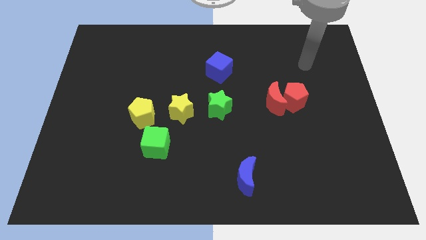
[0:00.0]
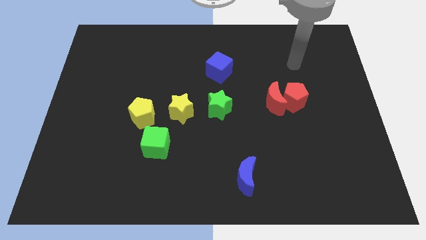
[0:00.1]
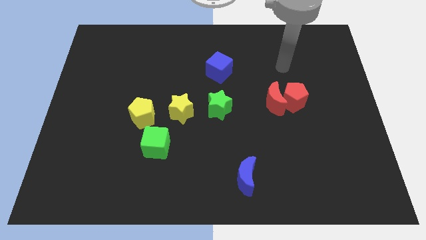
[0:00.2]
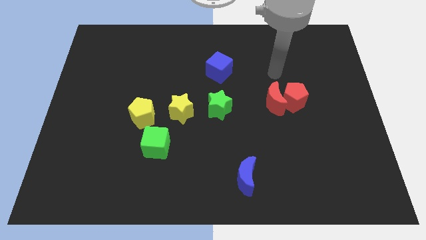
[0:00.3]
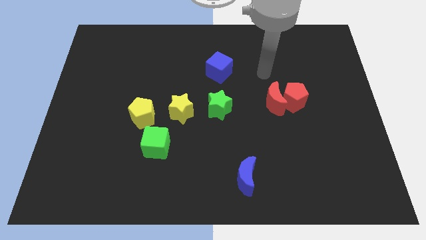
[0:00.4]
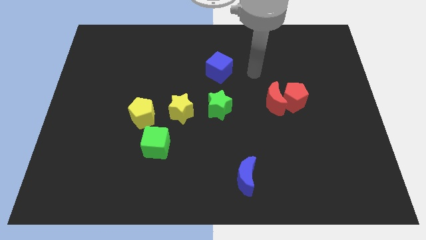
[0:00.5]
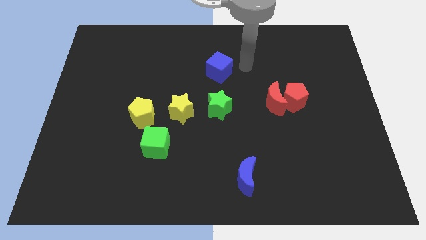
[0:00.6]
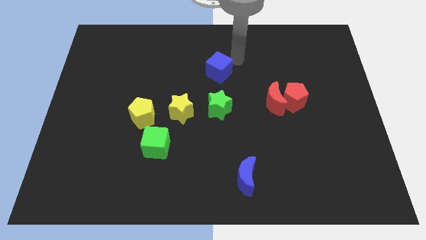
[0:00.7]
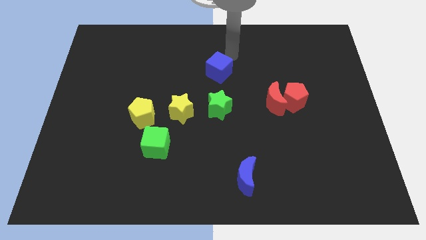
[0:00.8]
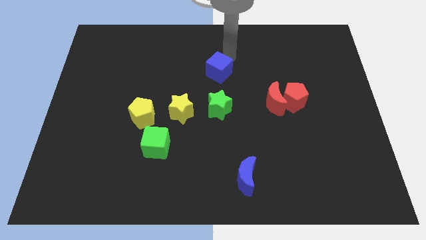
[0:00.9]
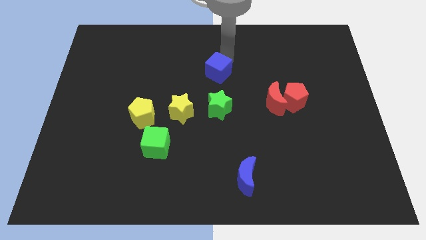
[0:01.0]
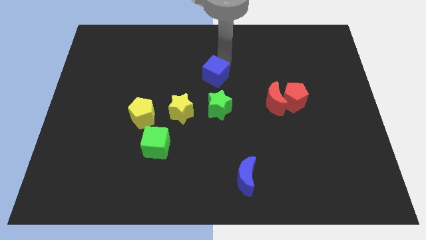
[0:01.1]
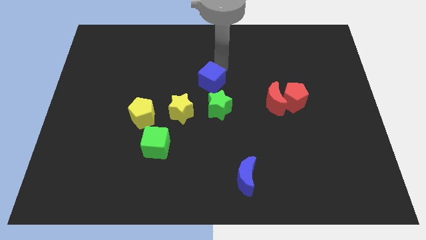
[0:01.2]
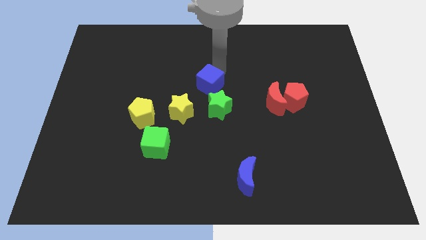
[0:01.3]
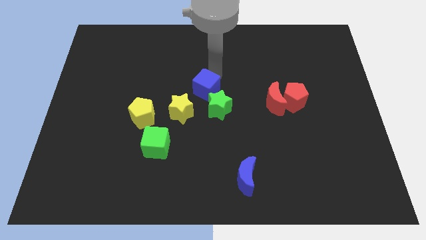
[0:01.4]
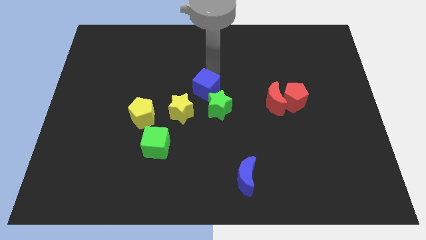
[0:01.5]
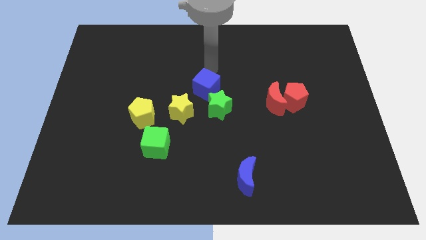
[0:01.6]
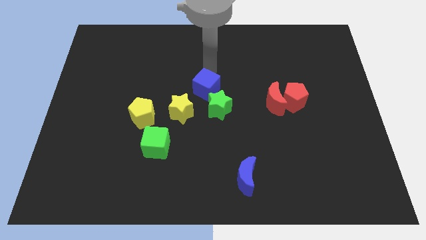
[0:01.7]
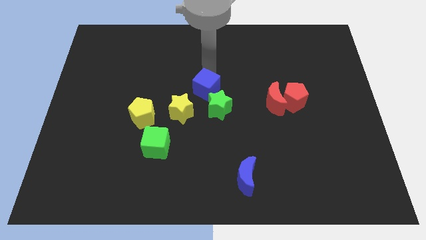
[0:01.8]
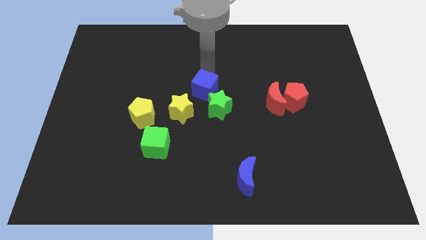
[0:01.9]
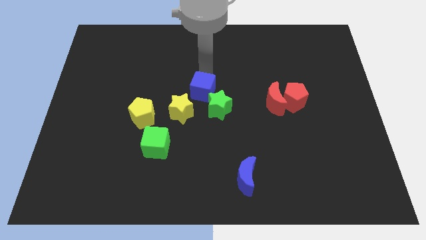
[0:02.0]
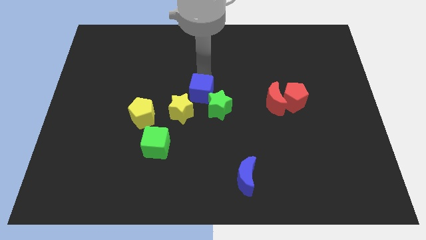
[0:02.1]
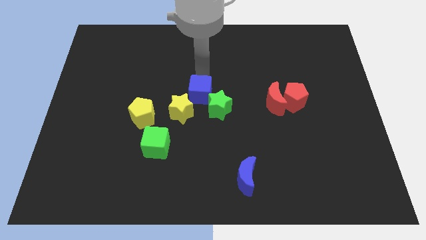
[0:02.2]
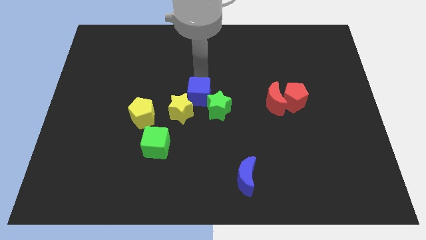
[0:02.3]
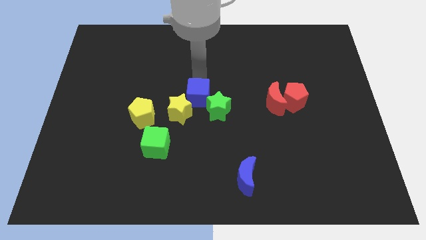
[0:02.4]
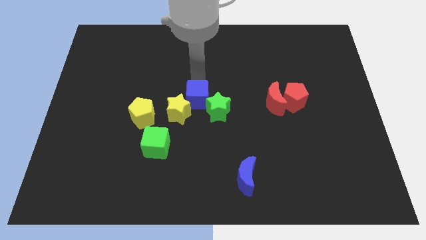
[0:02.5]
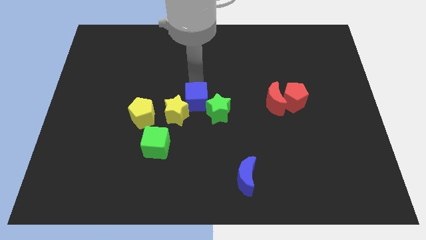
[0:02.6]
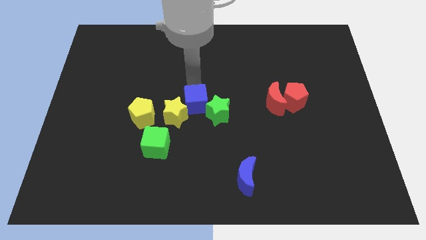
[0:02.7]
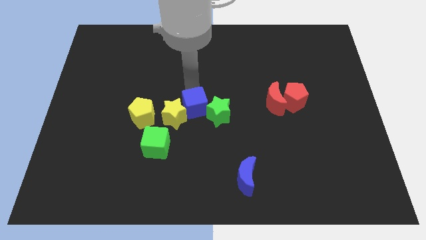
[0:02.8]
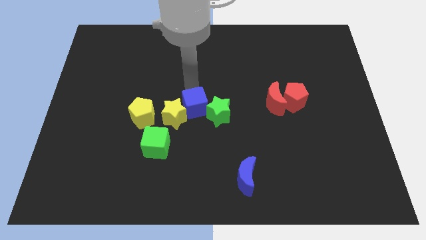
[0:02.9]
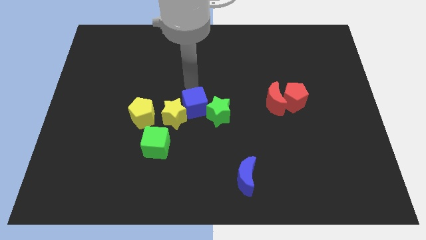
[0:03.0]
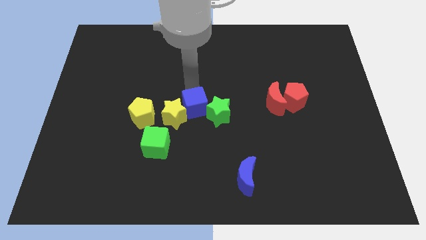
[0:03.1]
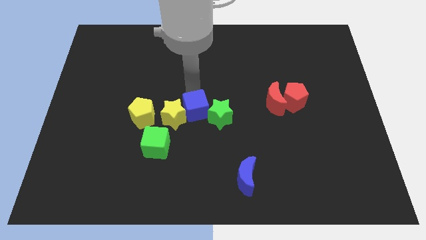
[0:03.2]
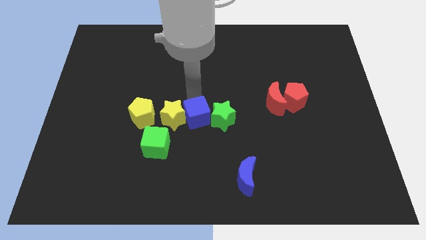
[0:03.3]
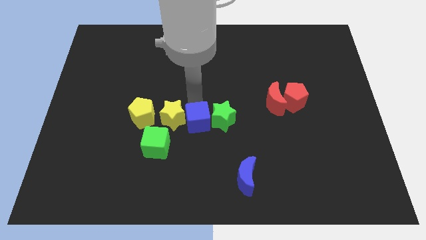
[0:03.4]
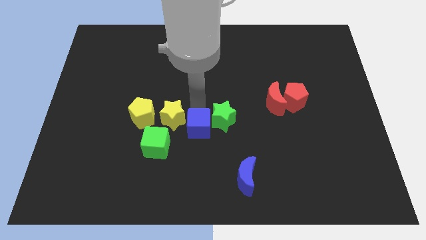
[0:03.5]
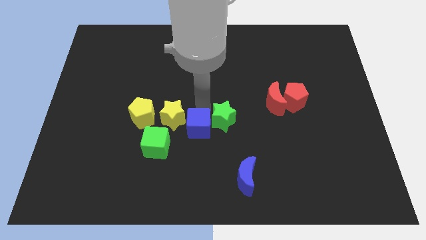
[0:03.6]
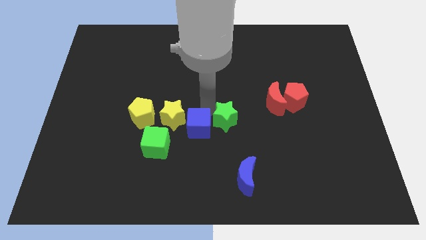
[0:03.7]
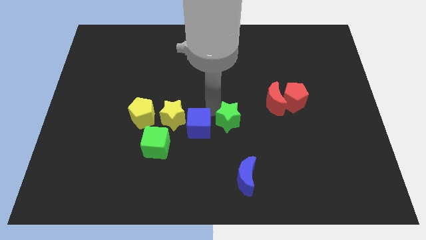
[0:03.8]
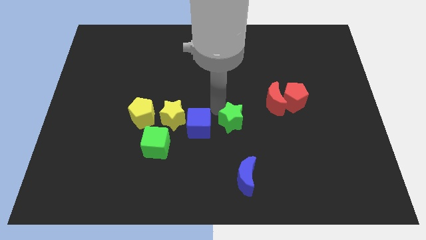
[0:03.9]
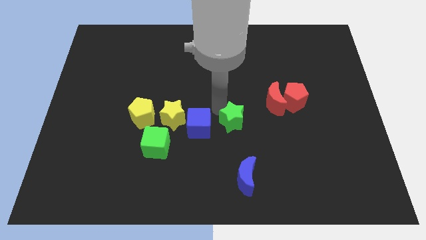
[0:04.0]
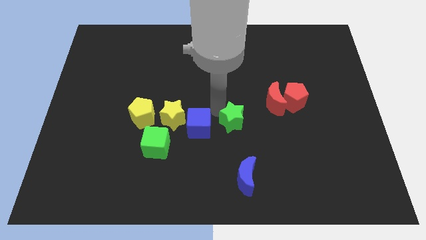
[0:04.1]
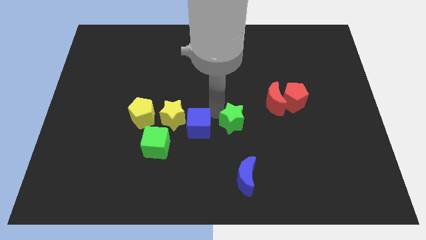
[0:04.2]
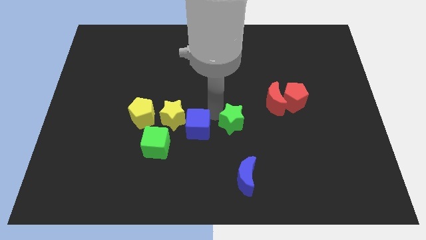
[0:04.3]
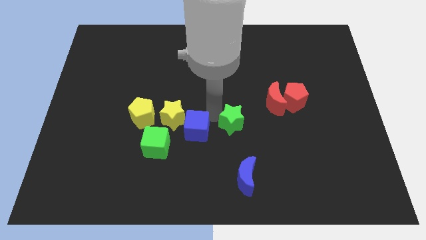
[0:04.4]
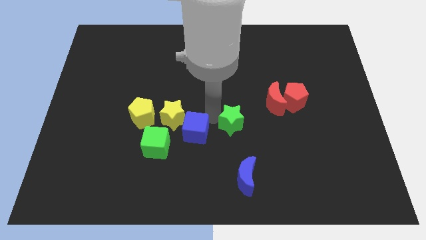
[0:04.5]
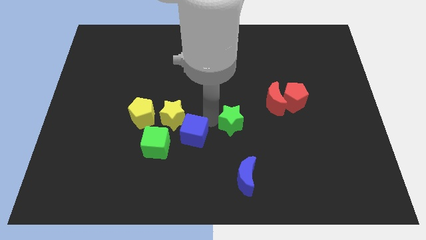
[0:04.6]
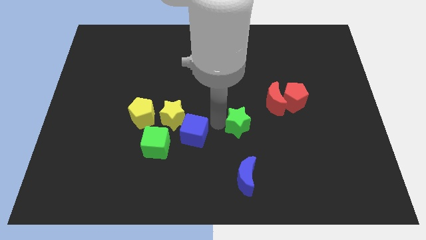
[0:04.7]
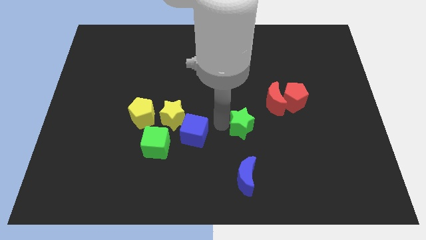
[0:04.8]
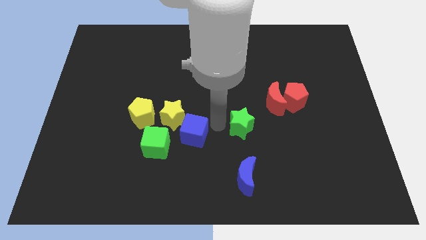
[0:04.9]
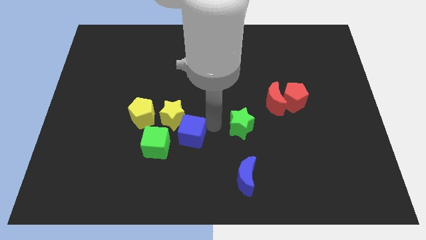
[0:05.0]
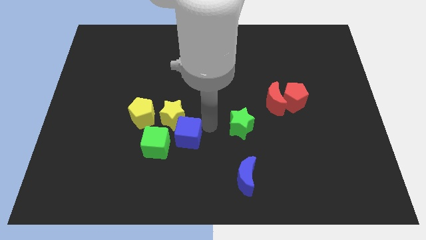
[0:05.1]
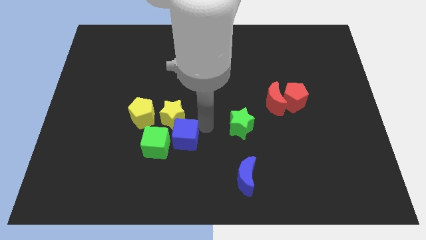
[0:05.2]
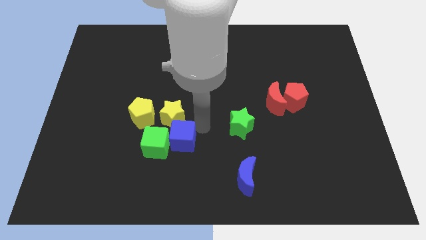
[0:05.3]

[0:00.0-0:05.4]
slide the blue cube towards the green cube

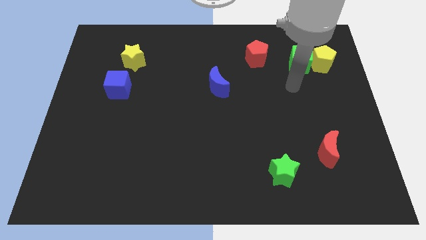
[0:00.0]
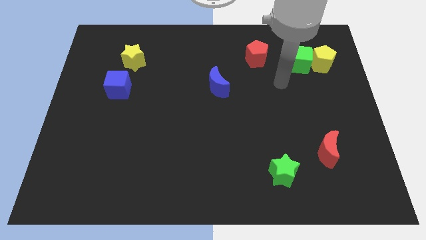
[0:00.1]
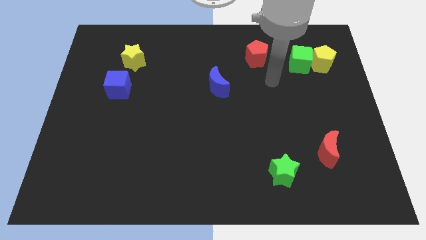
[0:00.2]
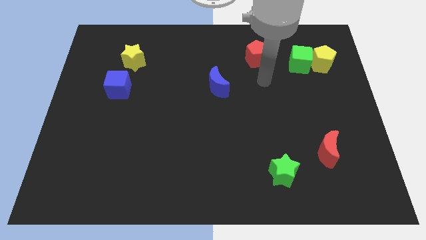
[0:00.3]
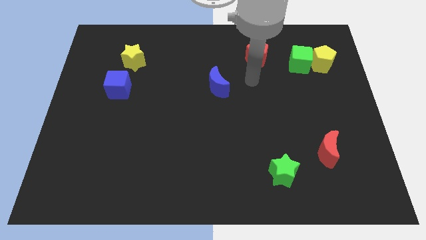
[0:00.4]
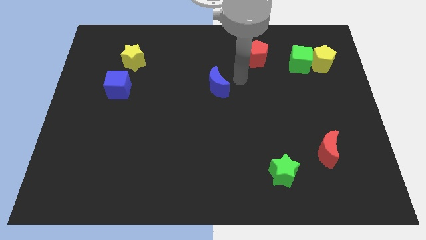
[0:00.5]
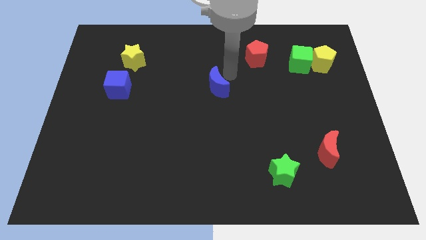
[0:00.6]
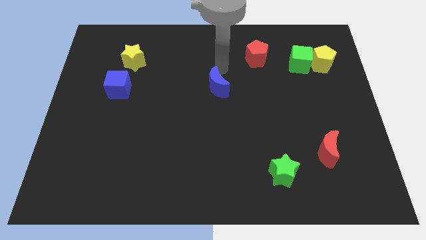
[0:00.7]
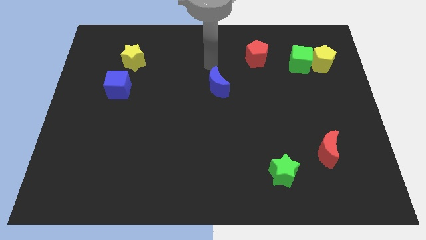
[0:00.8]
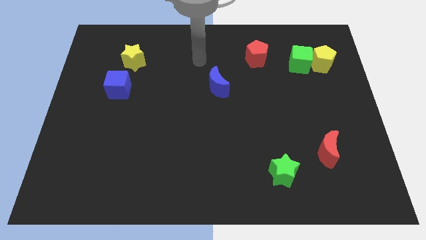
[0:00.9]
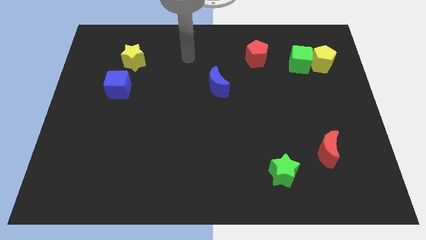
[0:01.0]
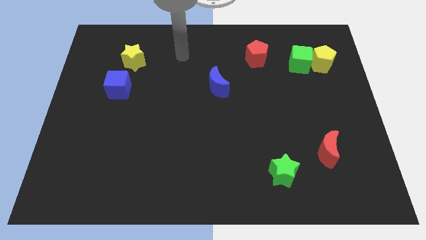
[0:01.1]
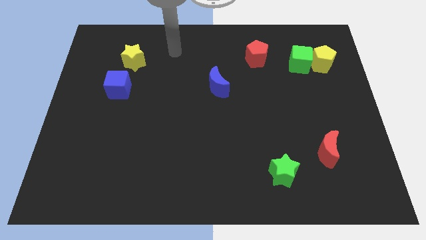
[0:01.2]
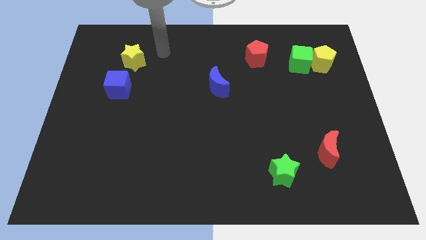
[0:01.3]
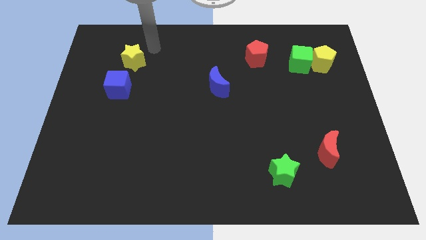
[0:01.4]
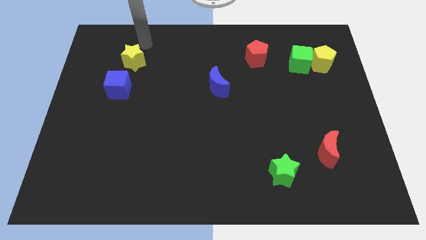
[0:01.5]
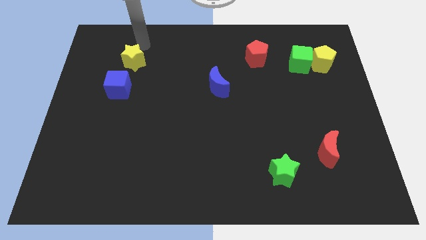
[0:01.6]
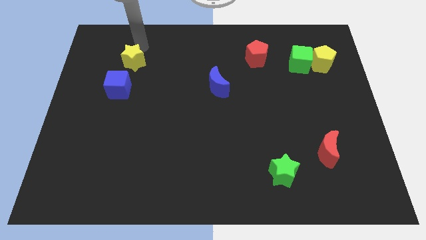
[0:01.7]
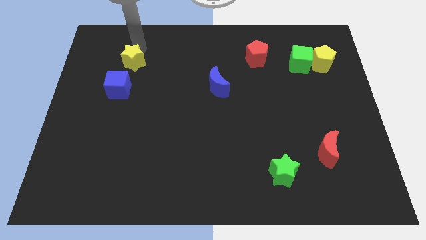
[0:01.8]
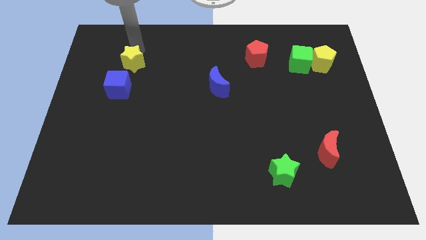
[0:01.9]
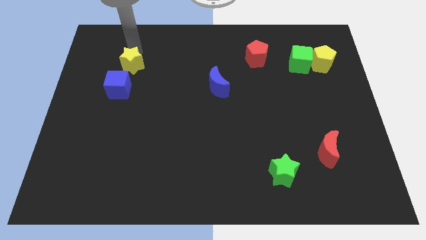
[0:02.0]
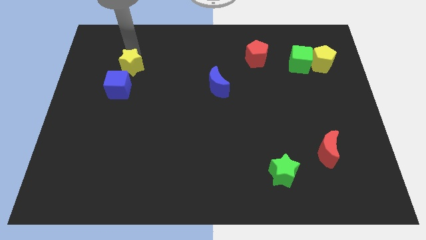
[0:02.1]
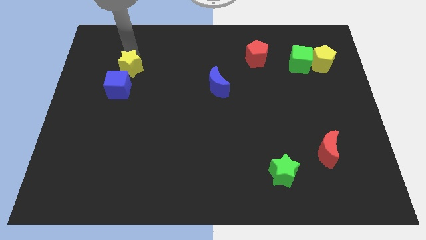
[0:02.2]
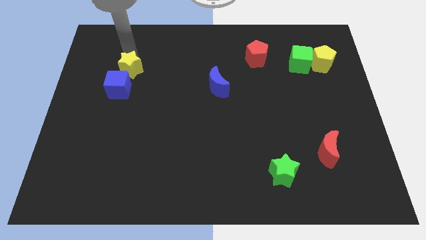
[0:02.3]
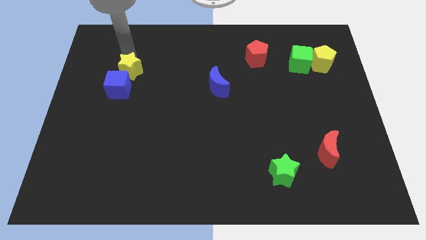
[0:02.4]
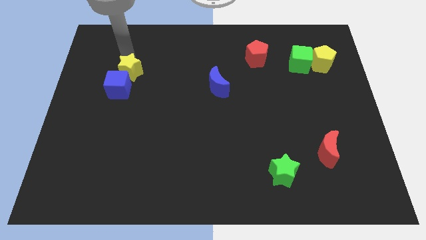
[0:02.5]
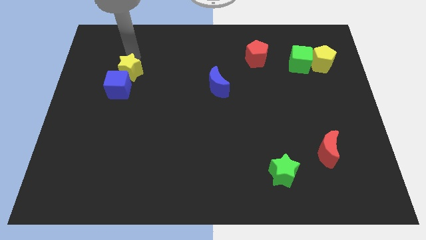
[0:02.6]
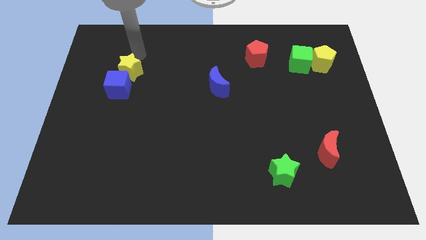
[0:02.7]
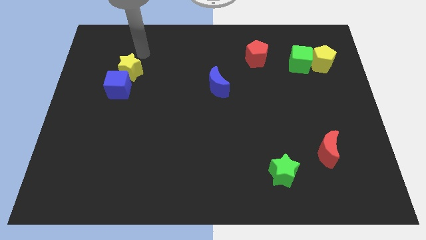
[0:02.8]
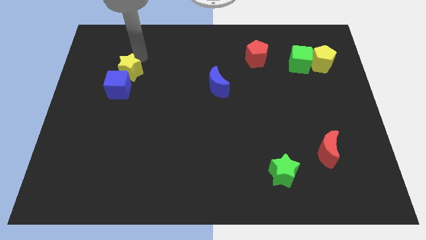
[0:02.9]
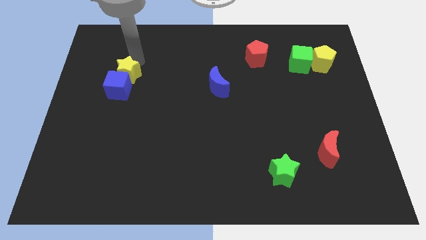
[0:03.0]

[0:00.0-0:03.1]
move the yellow star next to the blue cube
